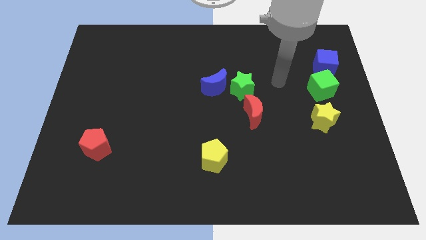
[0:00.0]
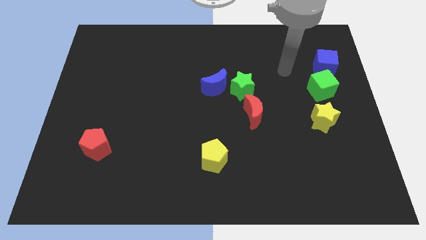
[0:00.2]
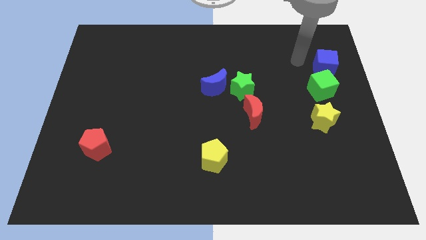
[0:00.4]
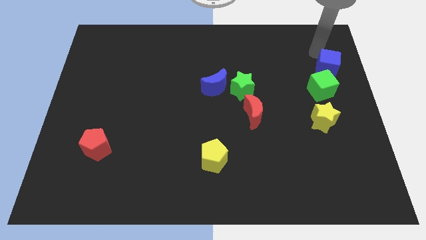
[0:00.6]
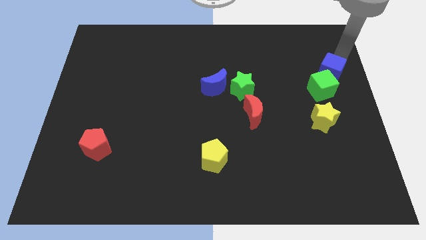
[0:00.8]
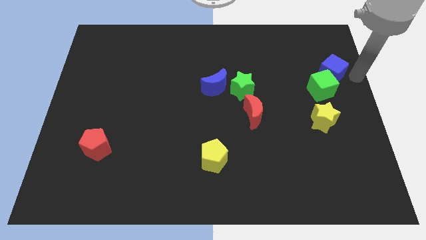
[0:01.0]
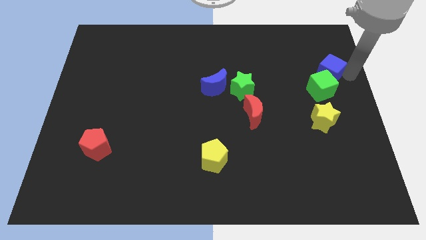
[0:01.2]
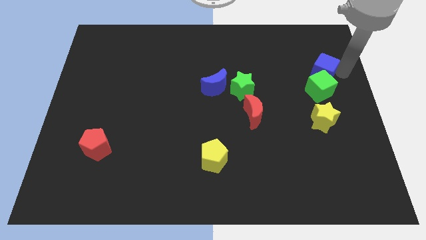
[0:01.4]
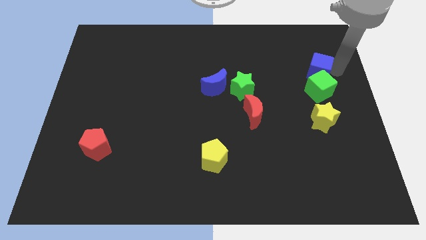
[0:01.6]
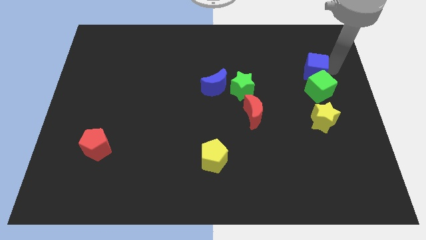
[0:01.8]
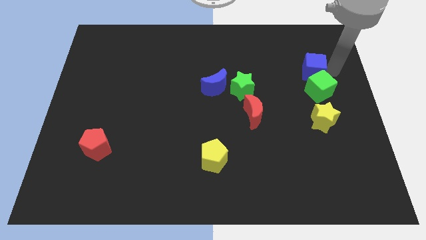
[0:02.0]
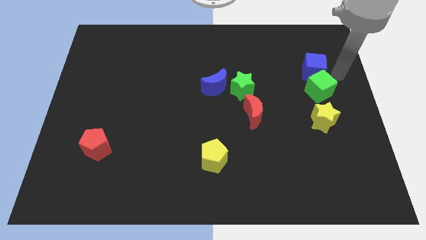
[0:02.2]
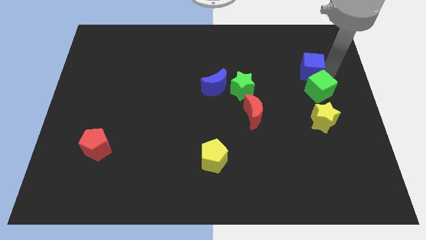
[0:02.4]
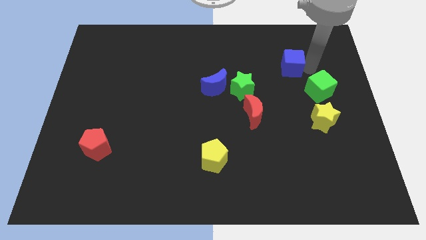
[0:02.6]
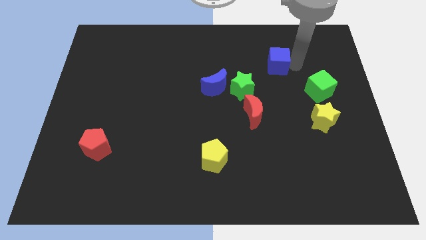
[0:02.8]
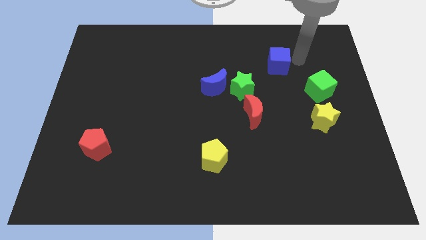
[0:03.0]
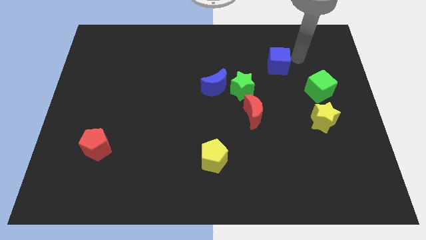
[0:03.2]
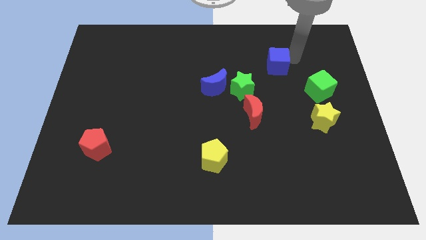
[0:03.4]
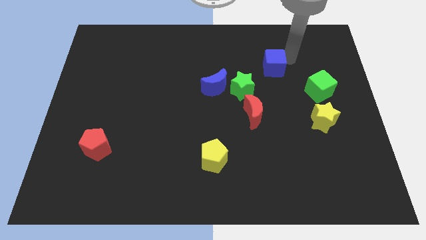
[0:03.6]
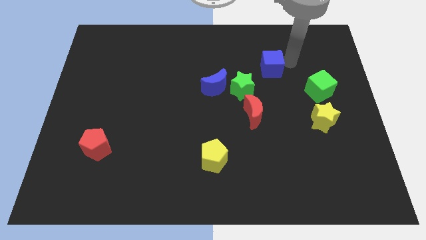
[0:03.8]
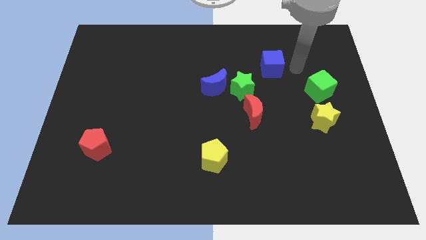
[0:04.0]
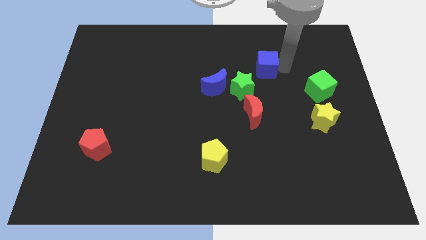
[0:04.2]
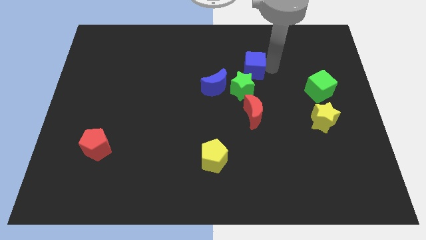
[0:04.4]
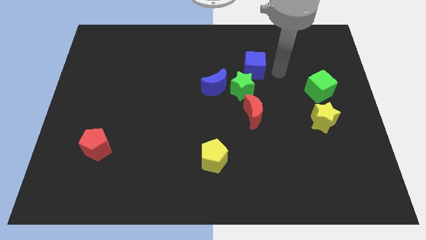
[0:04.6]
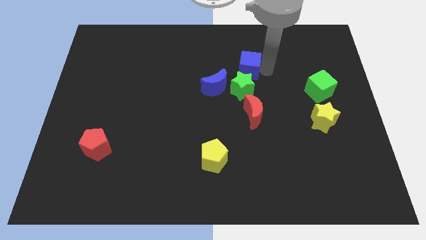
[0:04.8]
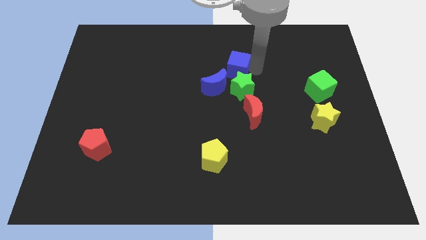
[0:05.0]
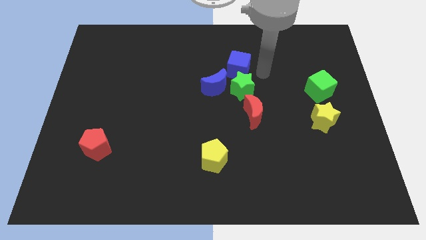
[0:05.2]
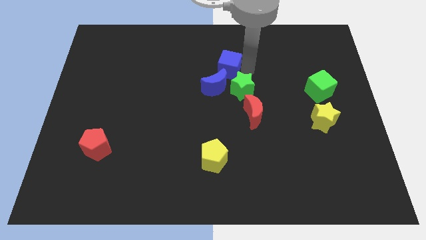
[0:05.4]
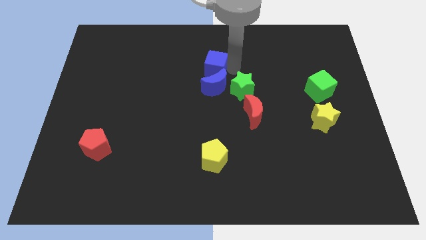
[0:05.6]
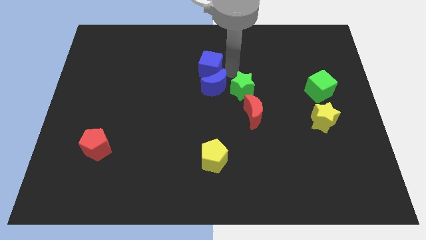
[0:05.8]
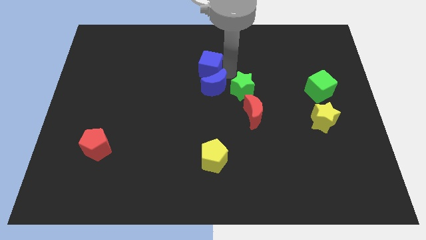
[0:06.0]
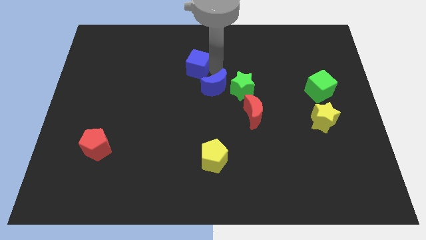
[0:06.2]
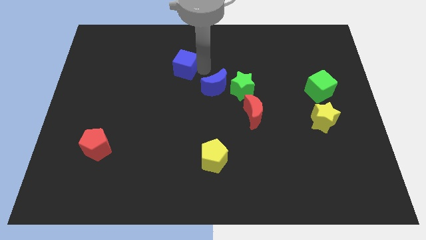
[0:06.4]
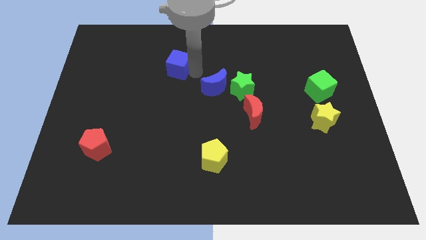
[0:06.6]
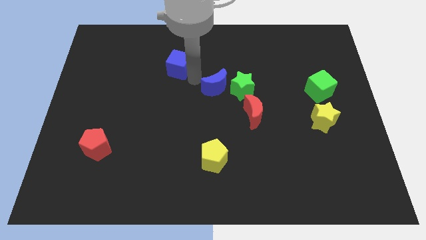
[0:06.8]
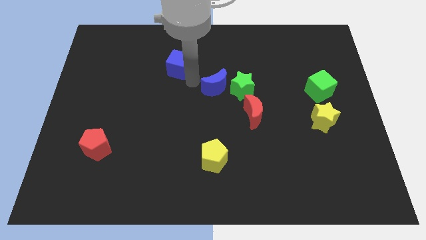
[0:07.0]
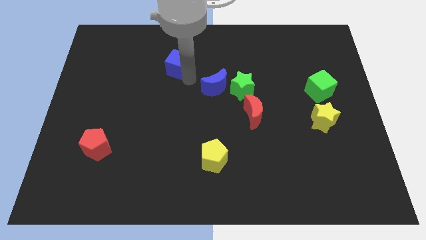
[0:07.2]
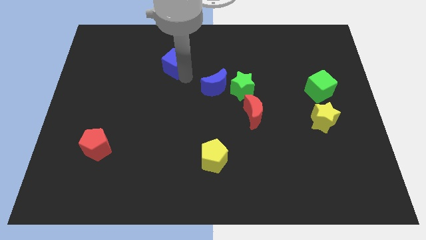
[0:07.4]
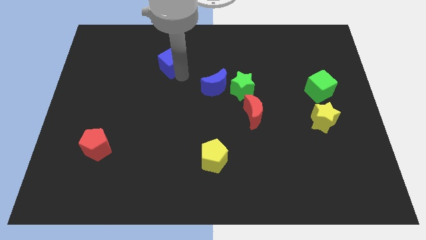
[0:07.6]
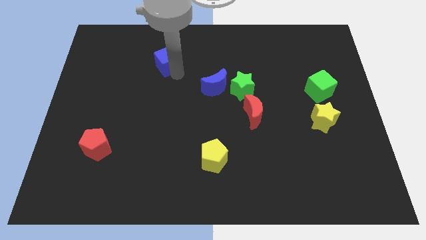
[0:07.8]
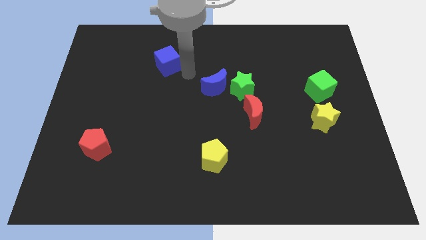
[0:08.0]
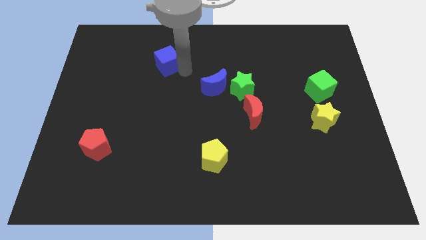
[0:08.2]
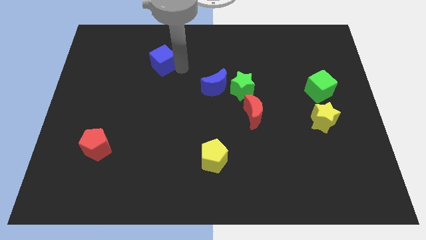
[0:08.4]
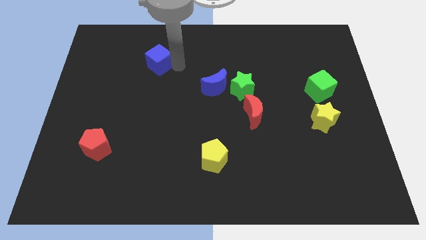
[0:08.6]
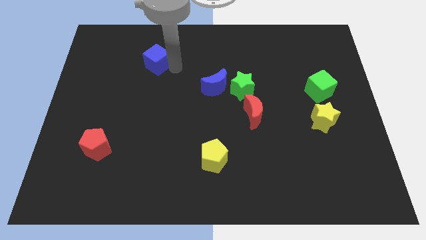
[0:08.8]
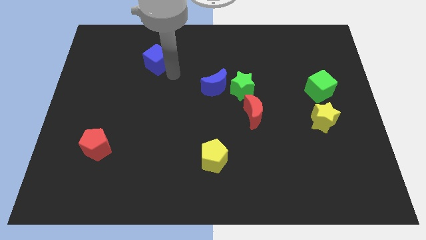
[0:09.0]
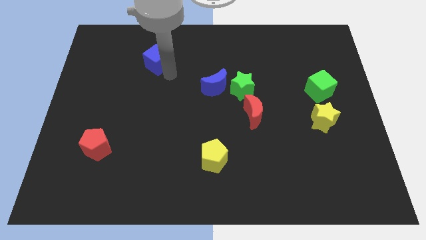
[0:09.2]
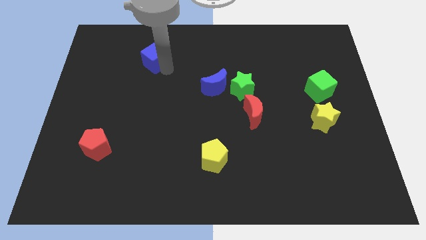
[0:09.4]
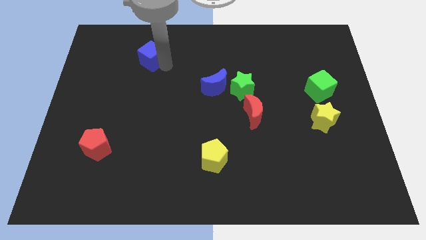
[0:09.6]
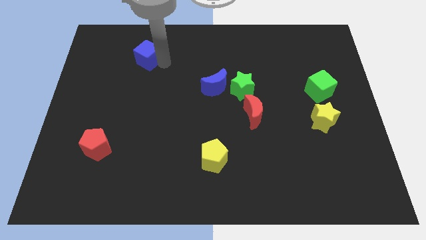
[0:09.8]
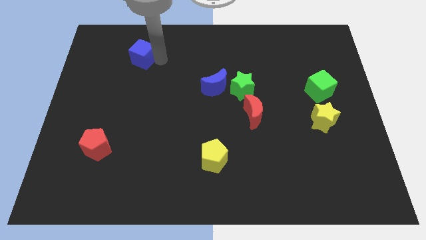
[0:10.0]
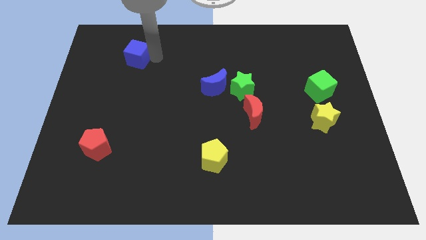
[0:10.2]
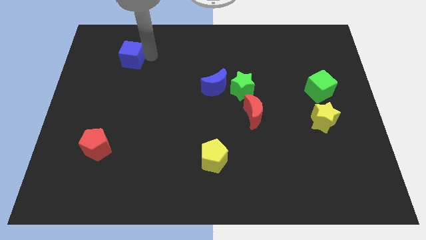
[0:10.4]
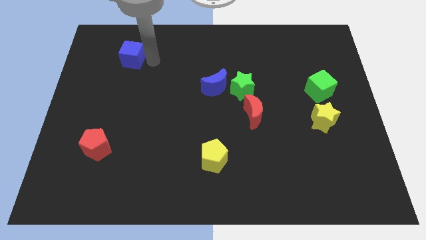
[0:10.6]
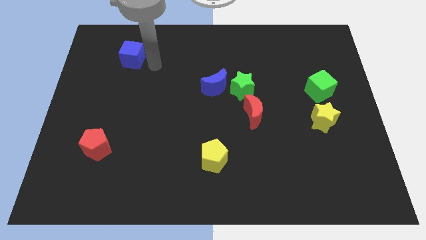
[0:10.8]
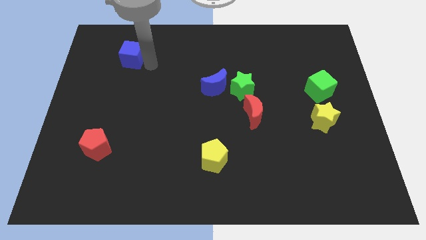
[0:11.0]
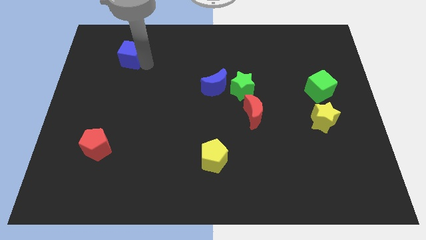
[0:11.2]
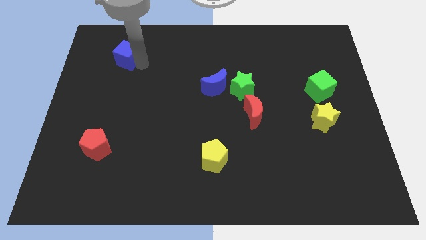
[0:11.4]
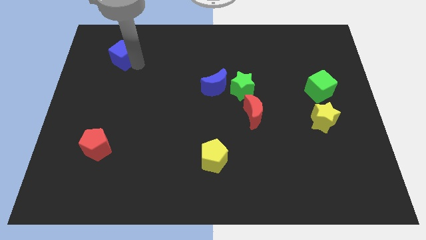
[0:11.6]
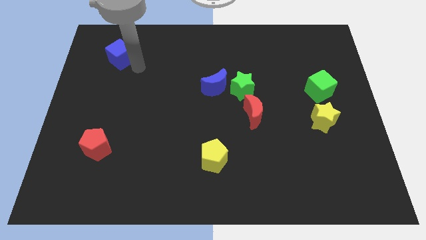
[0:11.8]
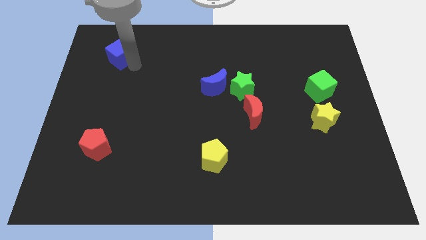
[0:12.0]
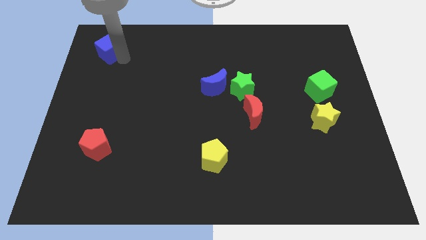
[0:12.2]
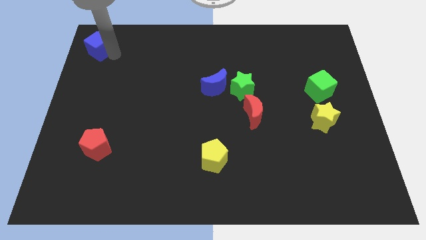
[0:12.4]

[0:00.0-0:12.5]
slide the blue cube to the top left
